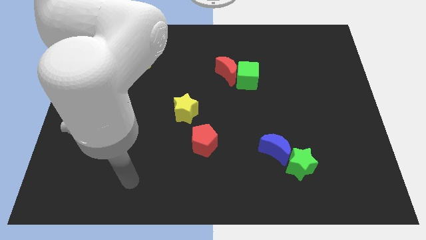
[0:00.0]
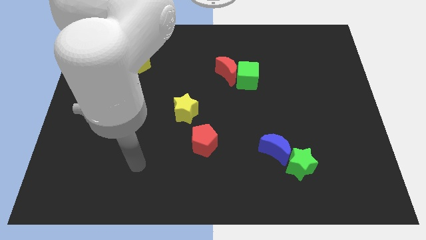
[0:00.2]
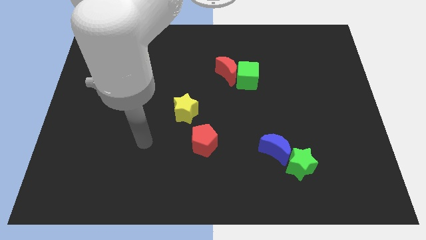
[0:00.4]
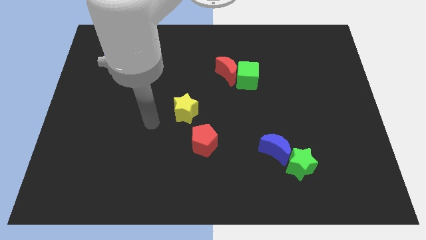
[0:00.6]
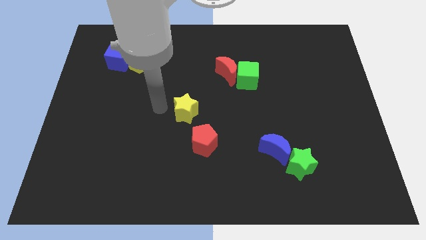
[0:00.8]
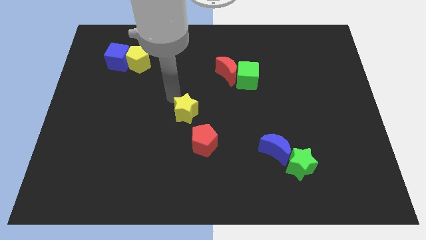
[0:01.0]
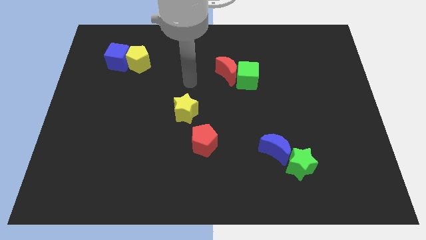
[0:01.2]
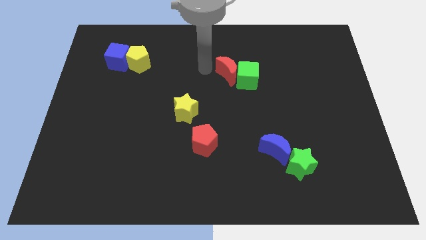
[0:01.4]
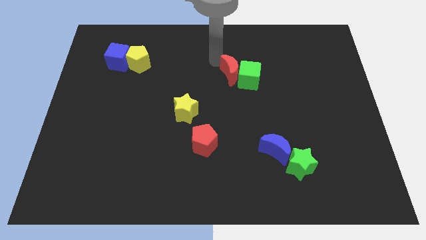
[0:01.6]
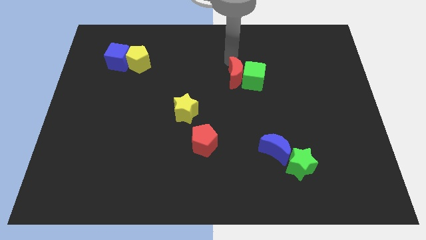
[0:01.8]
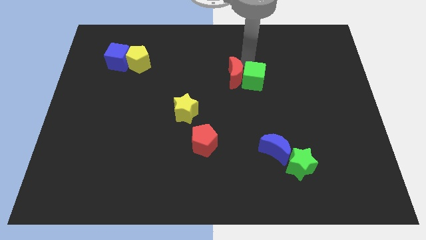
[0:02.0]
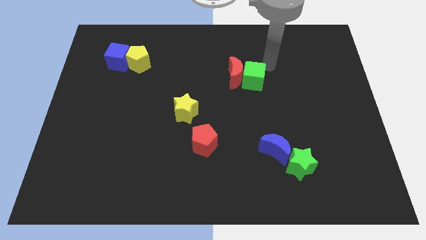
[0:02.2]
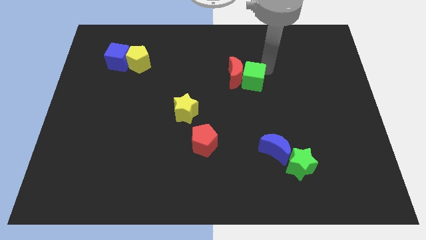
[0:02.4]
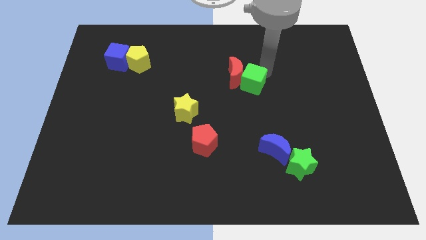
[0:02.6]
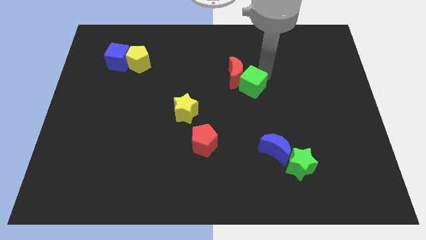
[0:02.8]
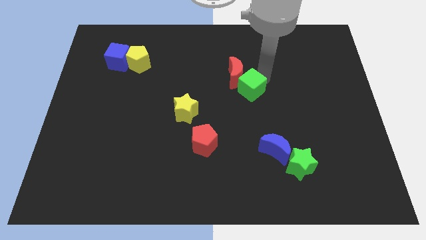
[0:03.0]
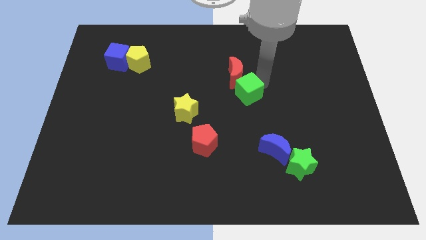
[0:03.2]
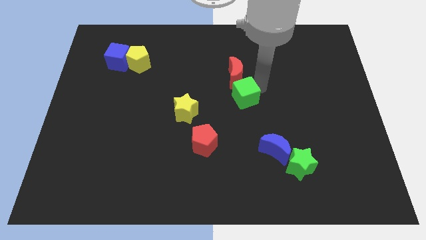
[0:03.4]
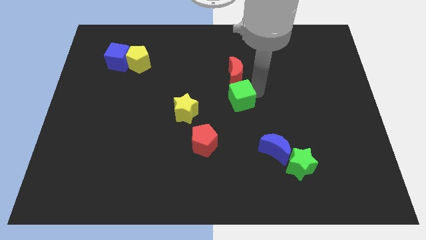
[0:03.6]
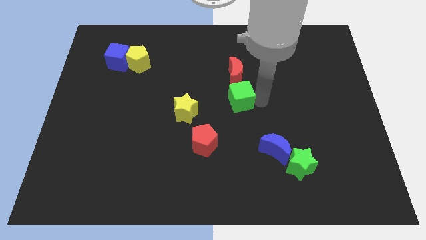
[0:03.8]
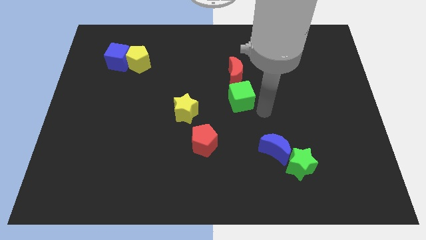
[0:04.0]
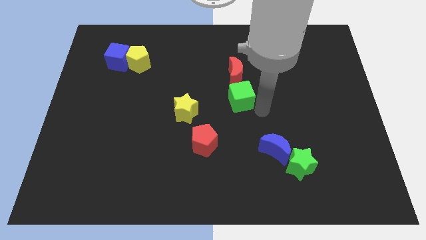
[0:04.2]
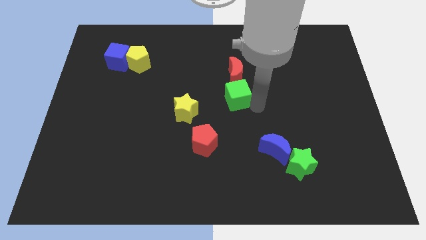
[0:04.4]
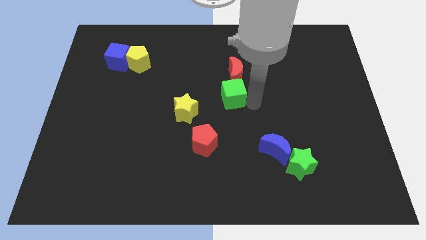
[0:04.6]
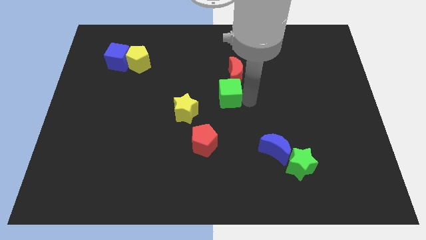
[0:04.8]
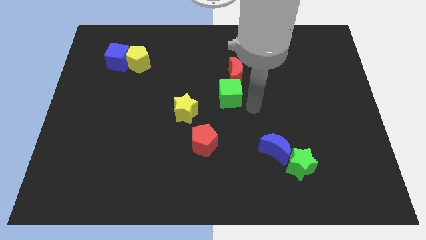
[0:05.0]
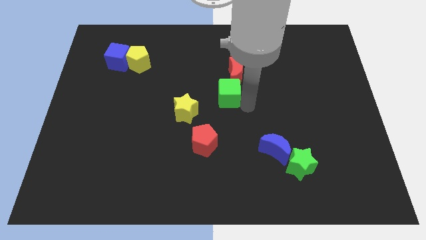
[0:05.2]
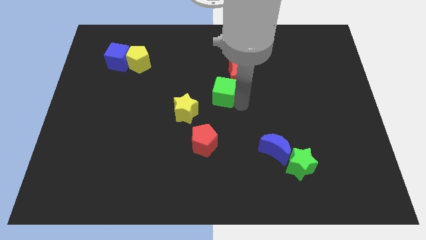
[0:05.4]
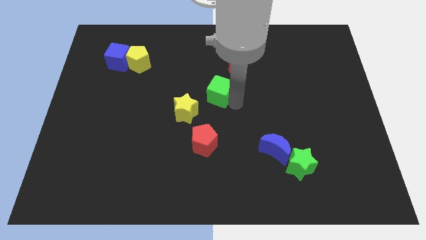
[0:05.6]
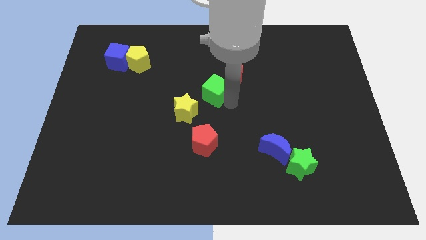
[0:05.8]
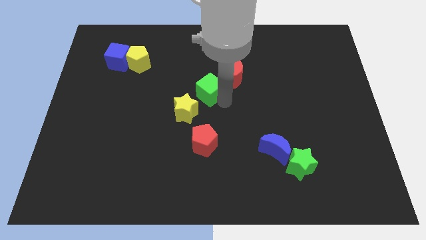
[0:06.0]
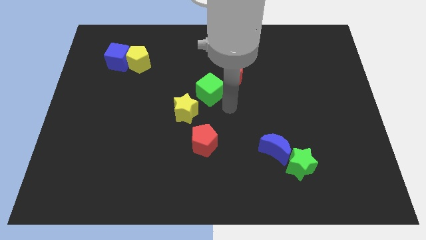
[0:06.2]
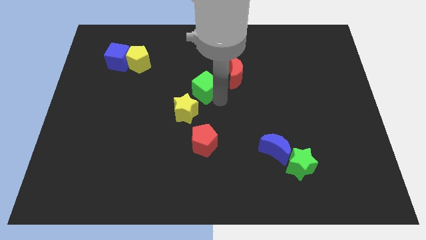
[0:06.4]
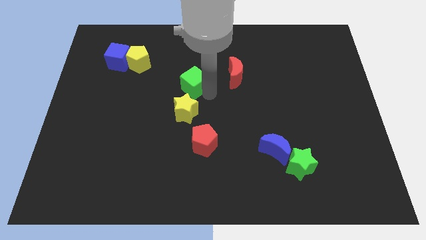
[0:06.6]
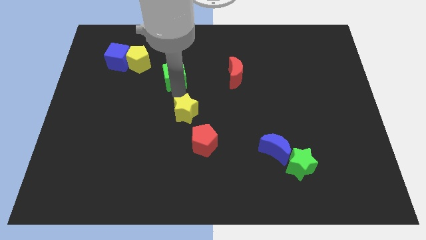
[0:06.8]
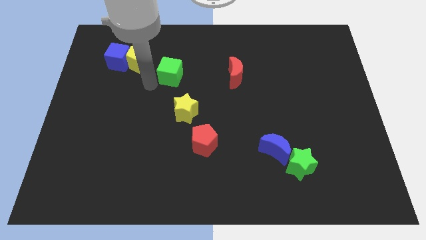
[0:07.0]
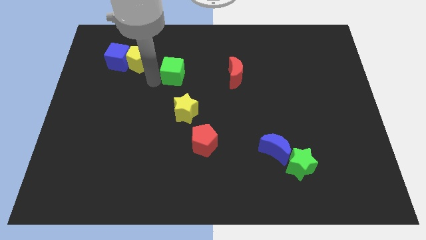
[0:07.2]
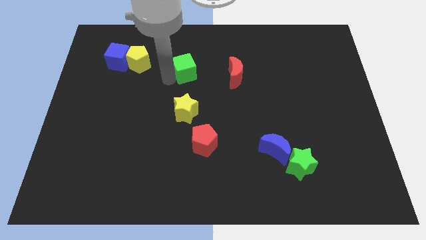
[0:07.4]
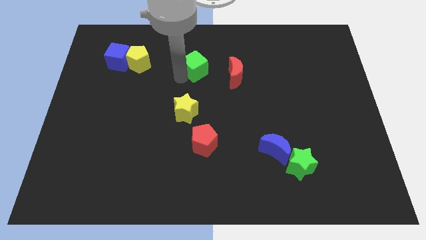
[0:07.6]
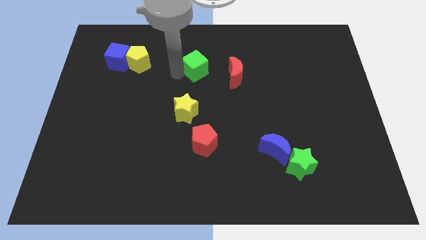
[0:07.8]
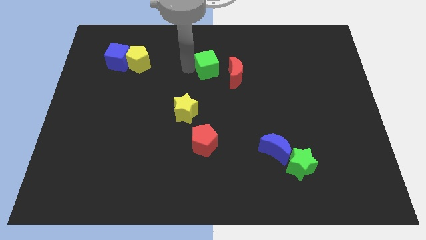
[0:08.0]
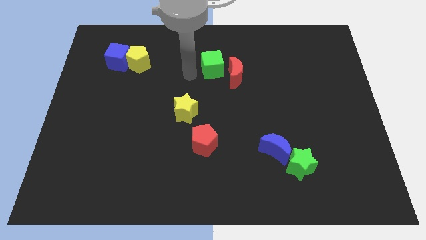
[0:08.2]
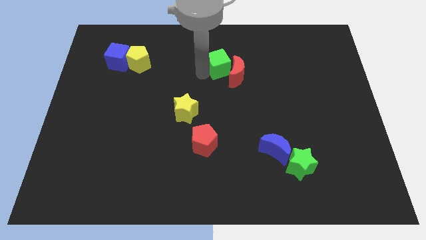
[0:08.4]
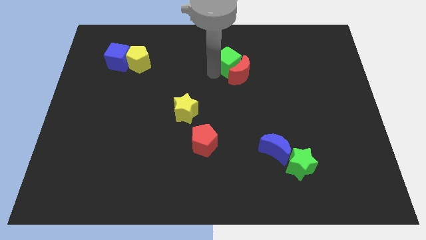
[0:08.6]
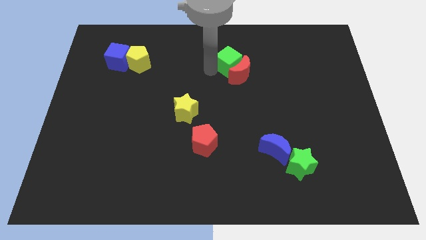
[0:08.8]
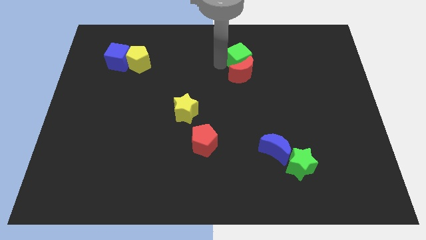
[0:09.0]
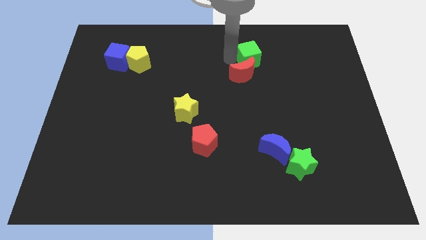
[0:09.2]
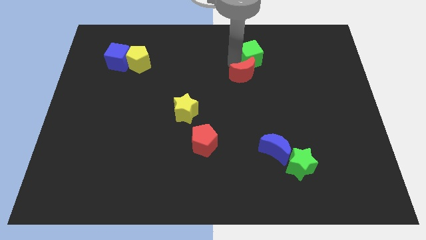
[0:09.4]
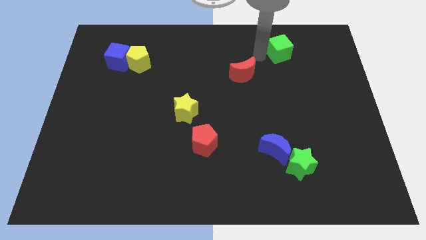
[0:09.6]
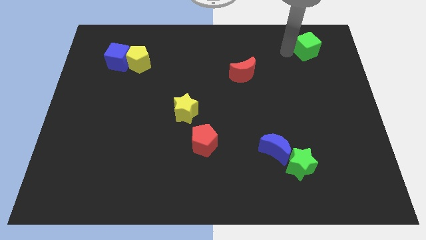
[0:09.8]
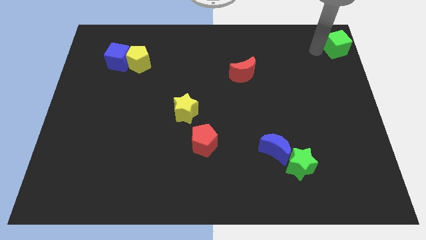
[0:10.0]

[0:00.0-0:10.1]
put the green cube to the top right of the board

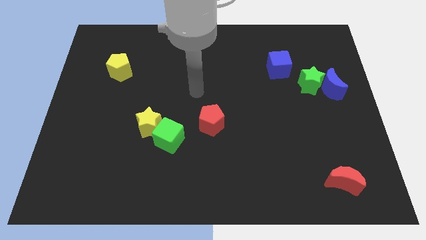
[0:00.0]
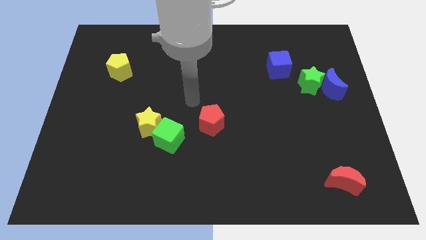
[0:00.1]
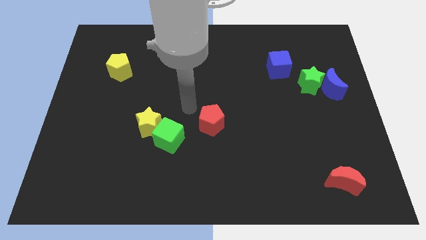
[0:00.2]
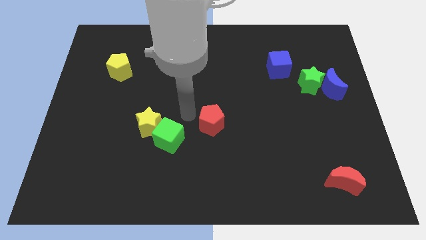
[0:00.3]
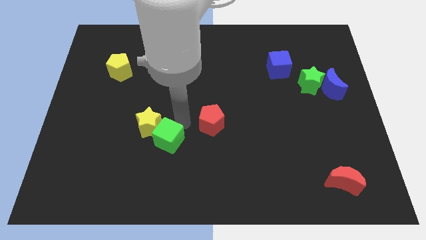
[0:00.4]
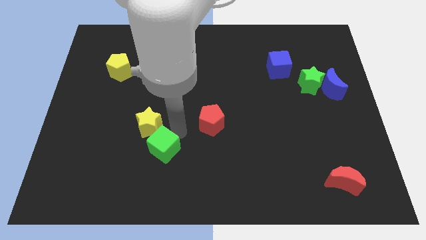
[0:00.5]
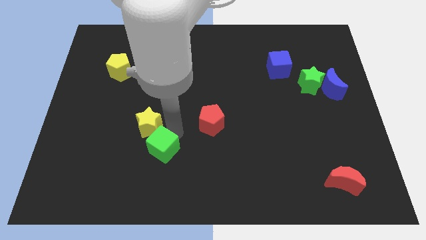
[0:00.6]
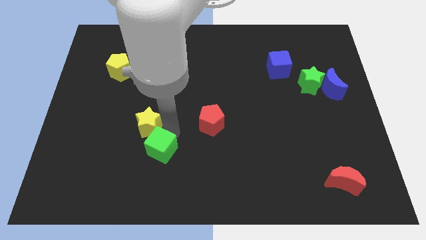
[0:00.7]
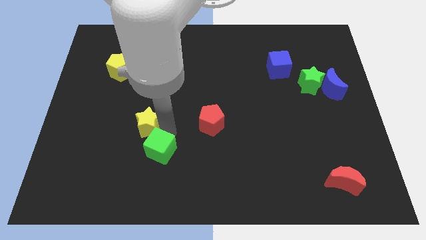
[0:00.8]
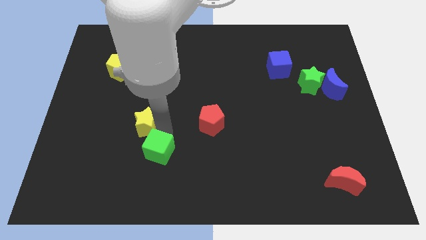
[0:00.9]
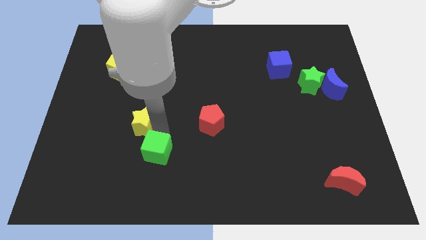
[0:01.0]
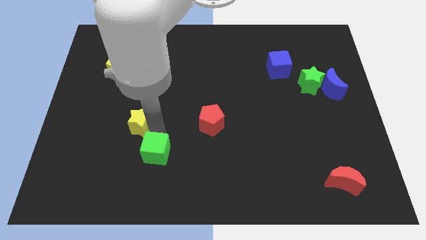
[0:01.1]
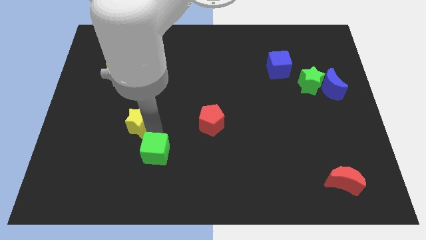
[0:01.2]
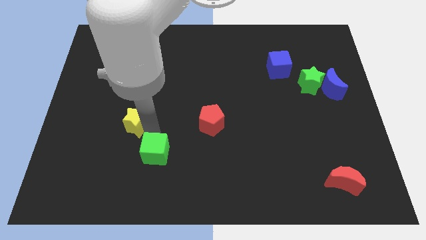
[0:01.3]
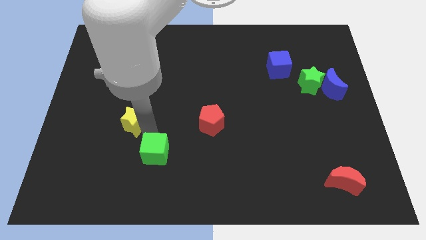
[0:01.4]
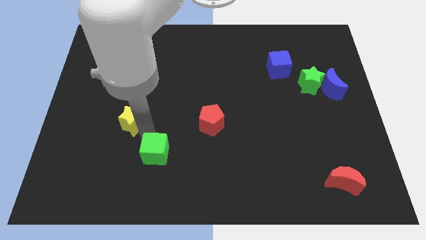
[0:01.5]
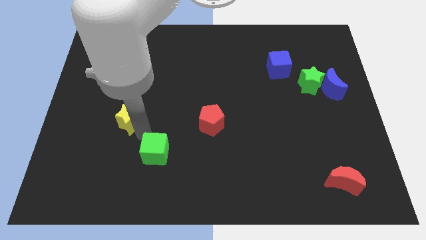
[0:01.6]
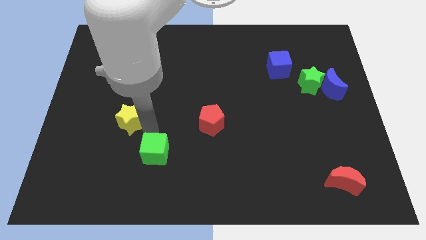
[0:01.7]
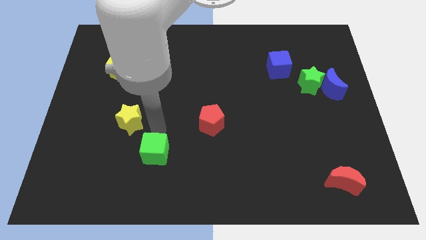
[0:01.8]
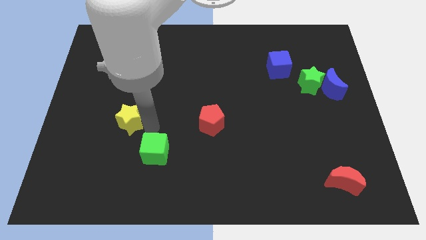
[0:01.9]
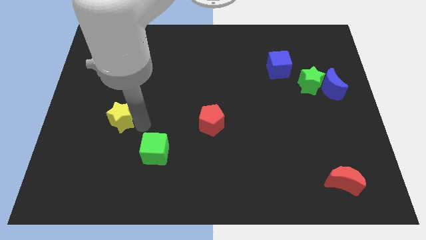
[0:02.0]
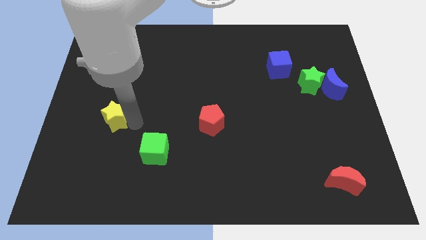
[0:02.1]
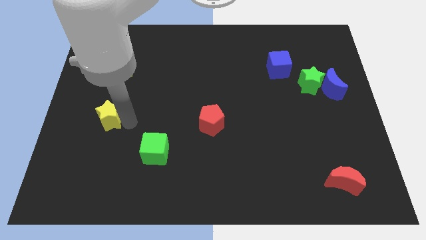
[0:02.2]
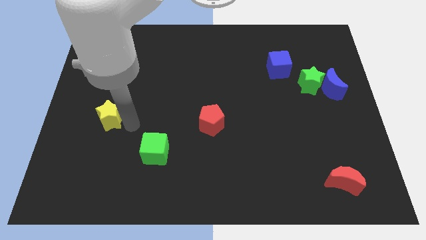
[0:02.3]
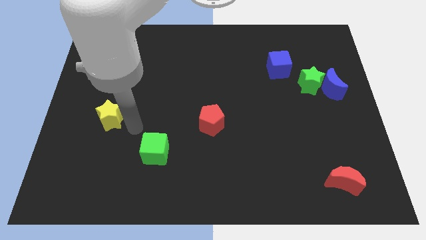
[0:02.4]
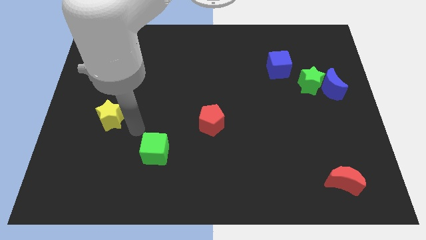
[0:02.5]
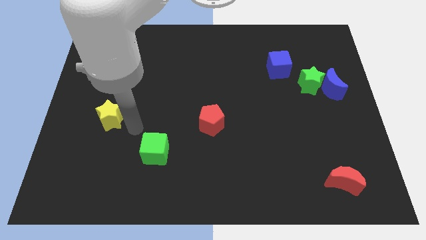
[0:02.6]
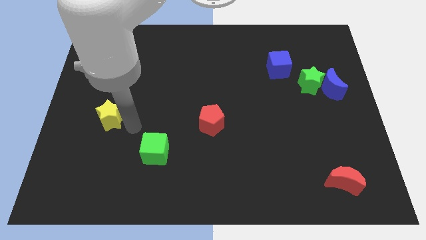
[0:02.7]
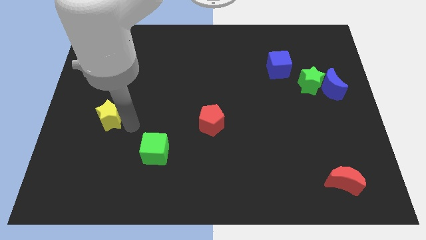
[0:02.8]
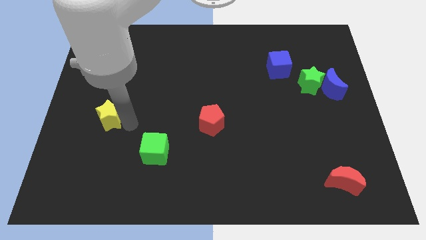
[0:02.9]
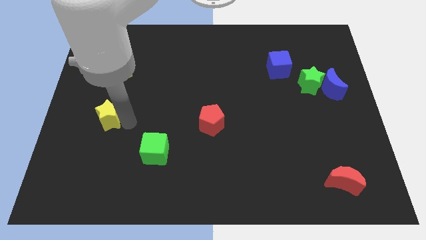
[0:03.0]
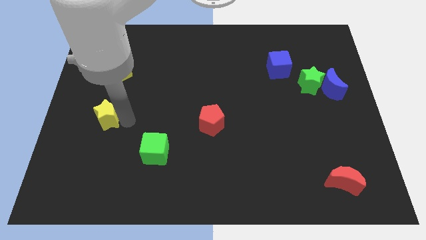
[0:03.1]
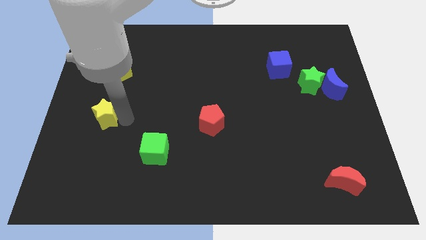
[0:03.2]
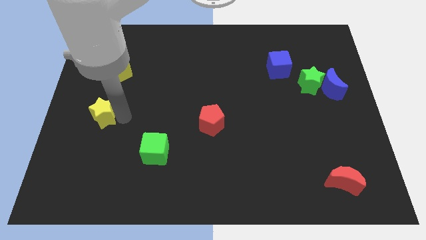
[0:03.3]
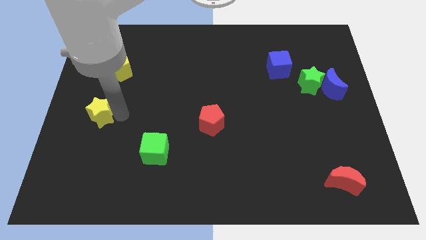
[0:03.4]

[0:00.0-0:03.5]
move the yellow star to the center left
